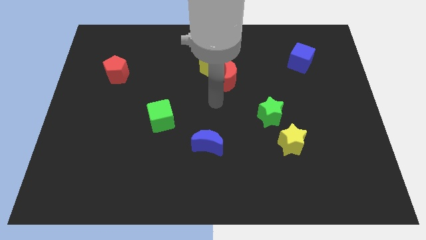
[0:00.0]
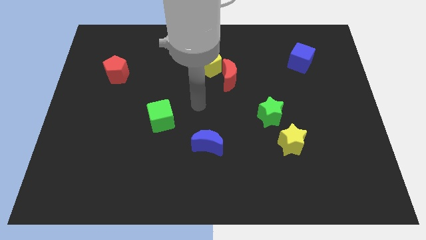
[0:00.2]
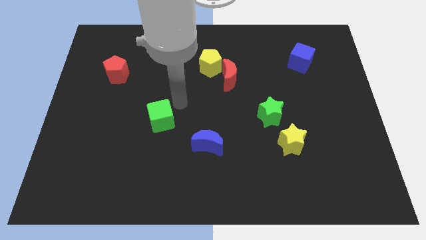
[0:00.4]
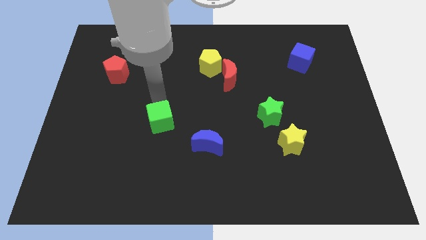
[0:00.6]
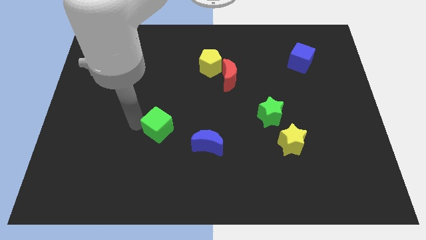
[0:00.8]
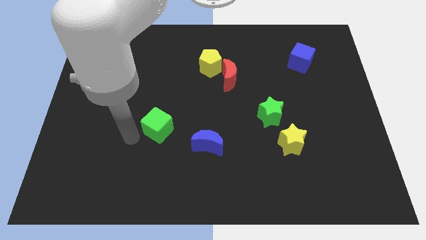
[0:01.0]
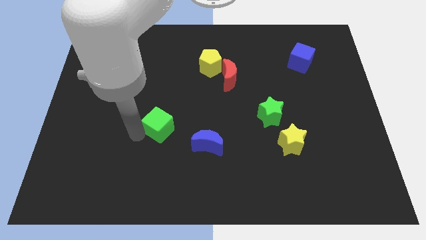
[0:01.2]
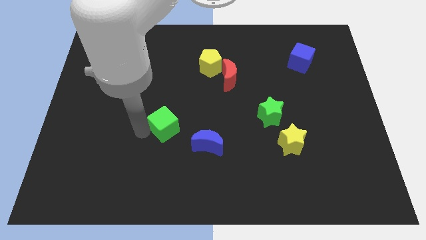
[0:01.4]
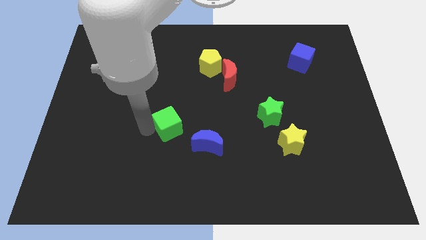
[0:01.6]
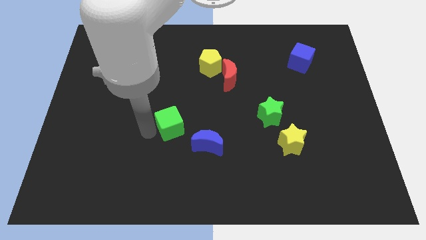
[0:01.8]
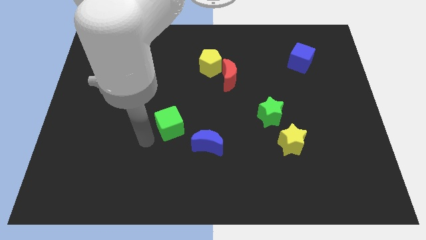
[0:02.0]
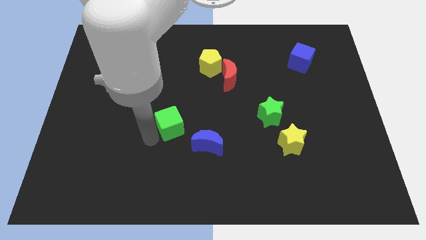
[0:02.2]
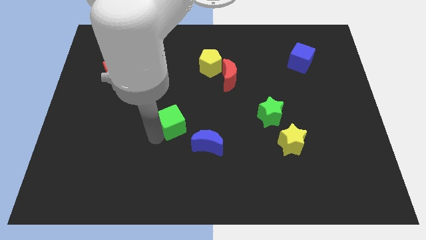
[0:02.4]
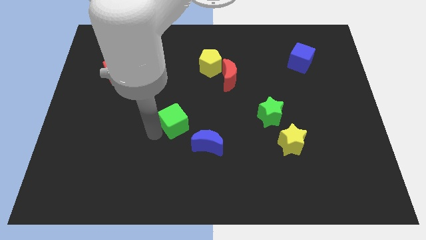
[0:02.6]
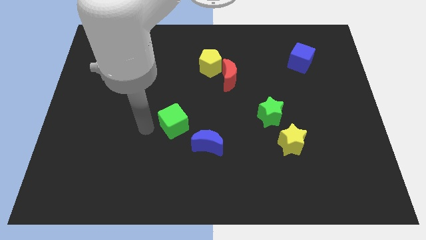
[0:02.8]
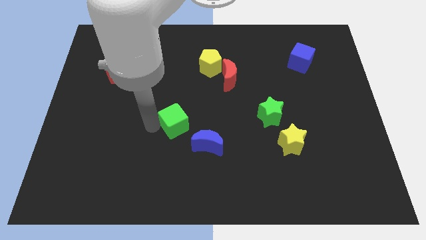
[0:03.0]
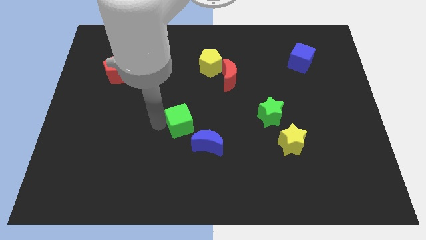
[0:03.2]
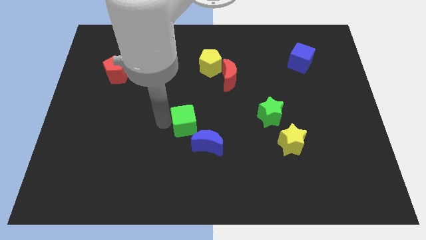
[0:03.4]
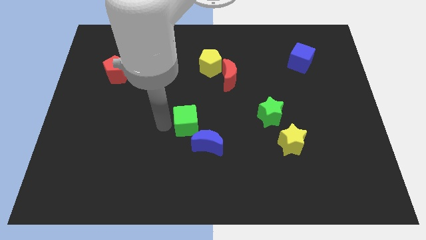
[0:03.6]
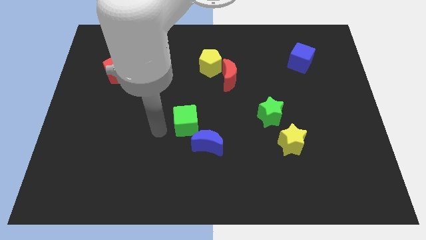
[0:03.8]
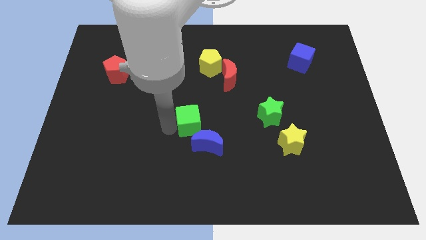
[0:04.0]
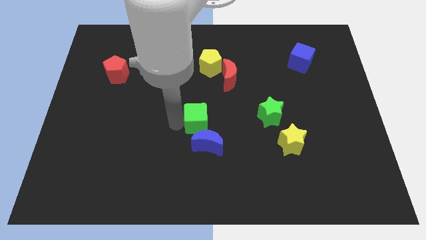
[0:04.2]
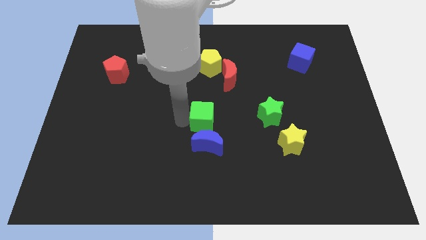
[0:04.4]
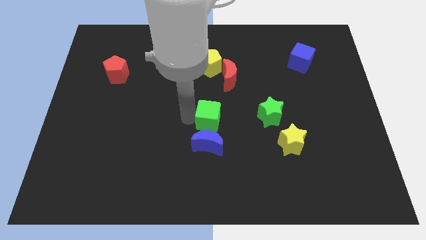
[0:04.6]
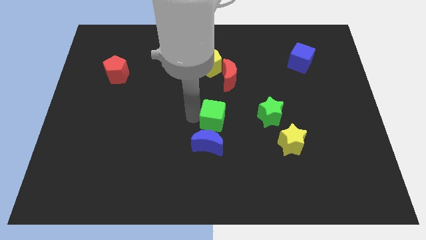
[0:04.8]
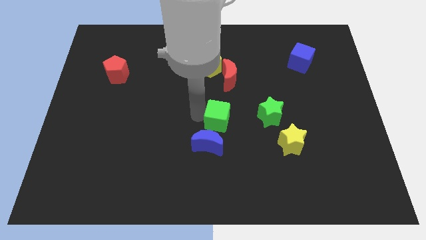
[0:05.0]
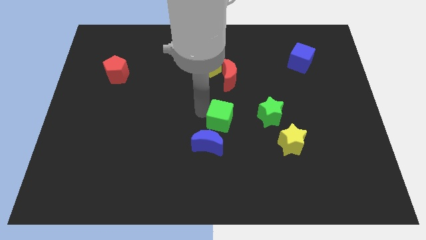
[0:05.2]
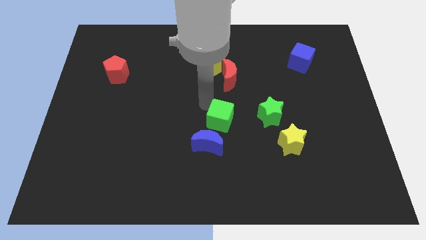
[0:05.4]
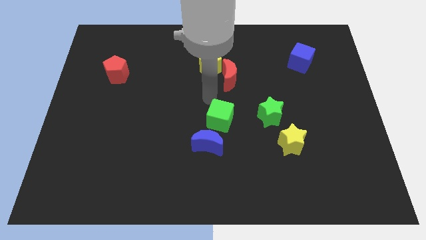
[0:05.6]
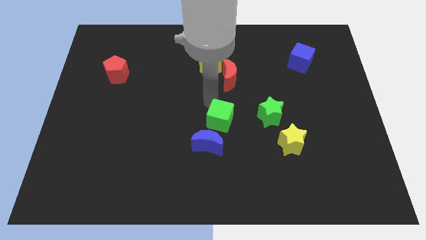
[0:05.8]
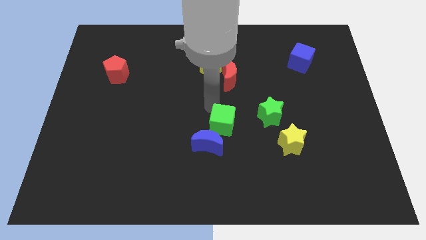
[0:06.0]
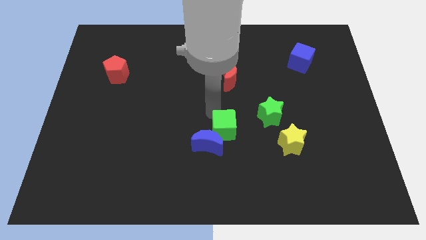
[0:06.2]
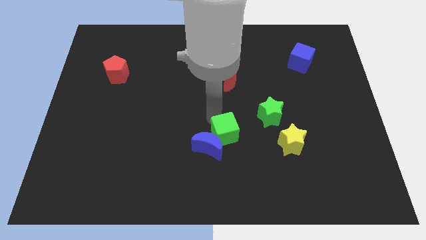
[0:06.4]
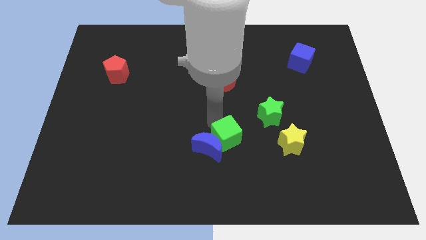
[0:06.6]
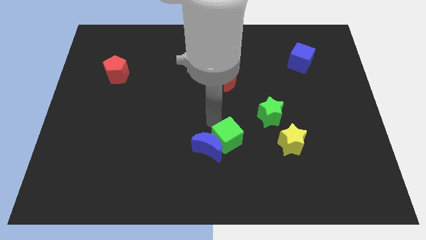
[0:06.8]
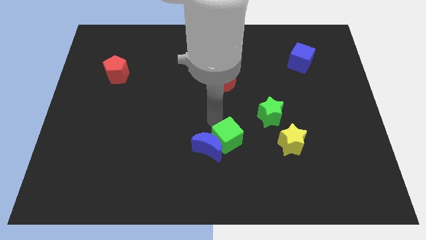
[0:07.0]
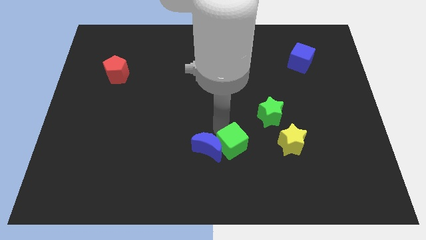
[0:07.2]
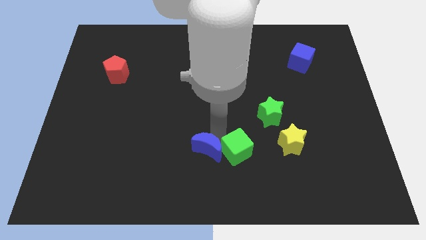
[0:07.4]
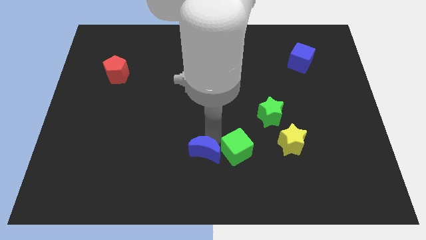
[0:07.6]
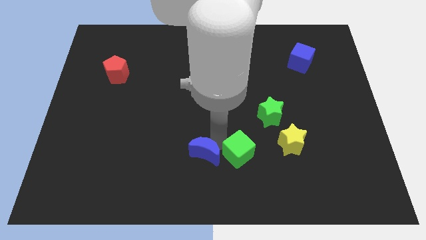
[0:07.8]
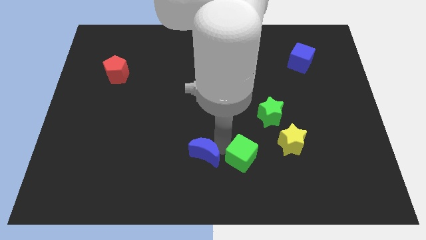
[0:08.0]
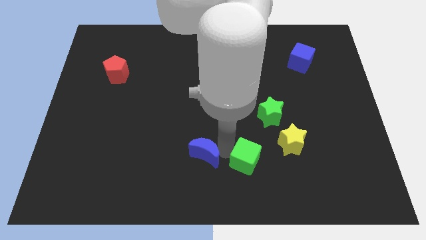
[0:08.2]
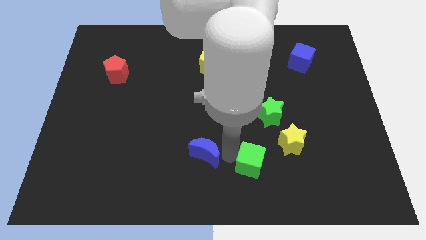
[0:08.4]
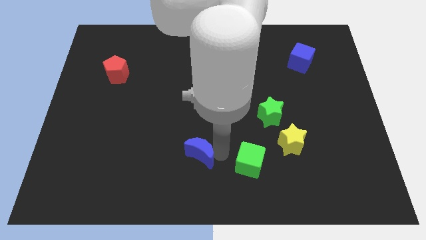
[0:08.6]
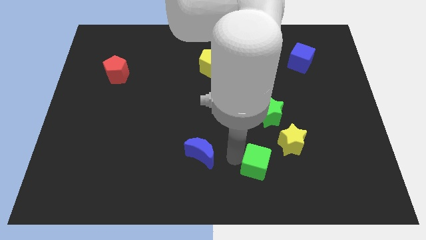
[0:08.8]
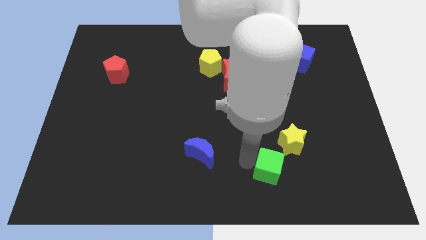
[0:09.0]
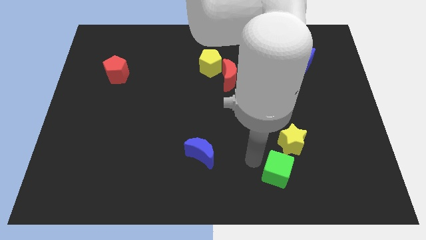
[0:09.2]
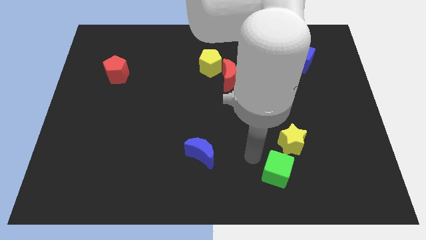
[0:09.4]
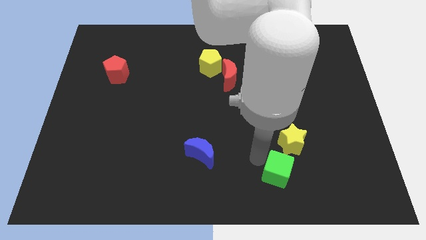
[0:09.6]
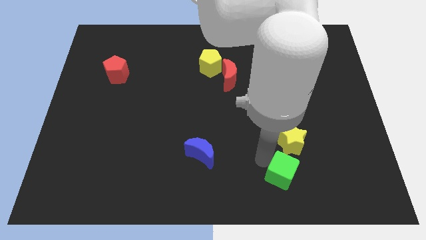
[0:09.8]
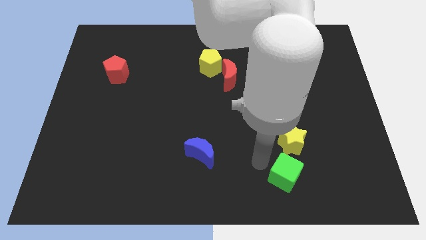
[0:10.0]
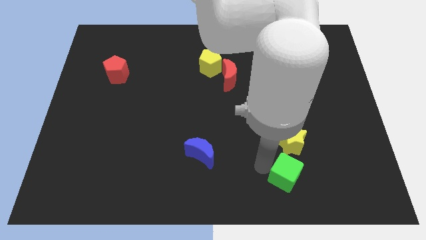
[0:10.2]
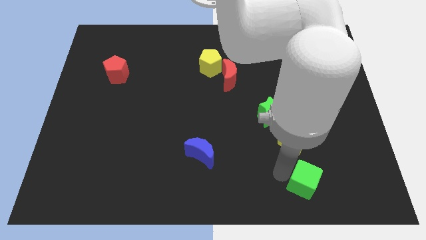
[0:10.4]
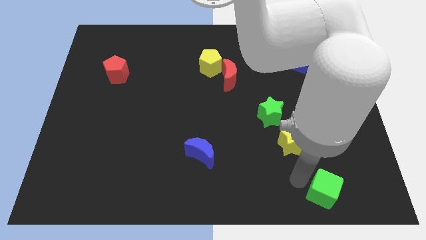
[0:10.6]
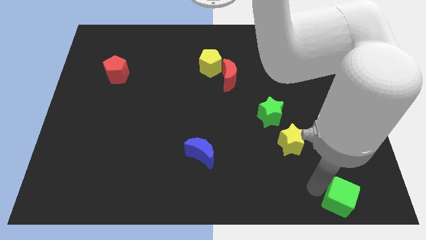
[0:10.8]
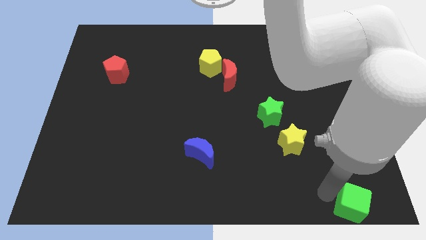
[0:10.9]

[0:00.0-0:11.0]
put the green cube to the bottom right
